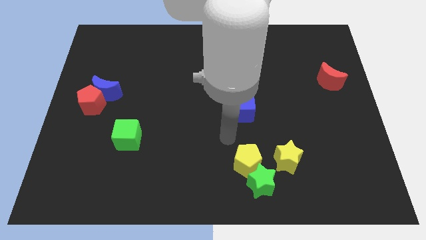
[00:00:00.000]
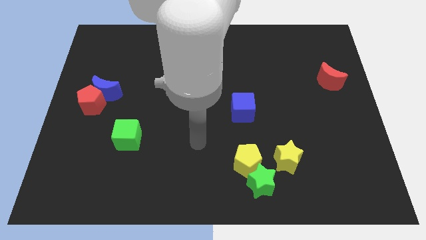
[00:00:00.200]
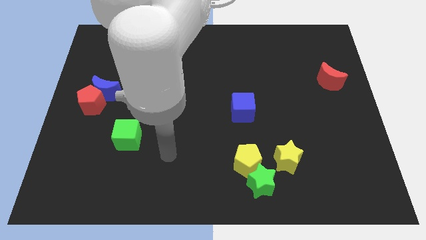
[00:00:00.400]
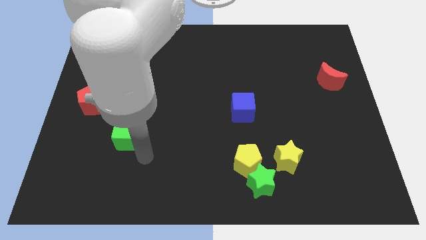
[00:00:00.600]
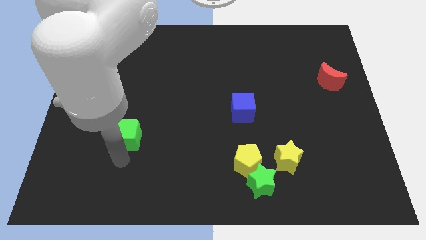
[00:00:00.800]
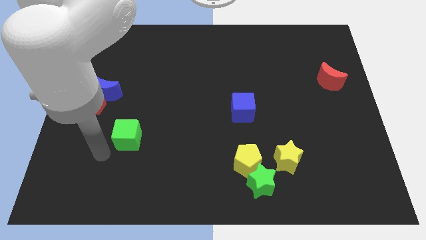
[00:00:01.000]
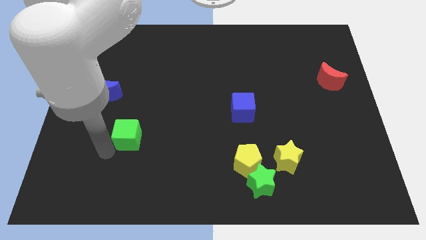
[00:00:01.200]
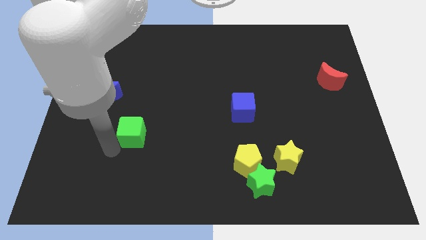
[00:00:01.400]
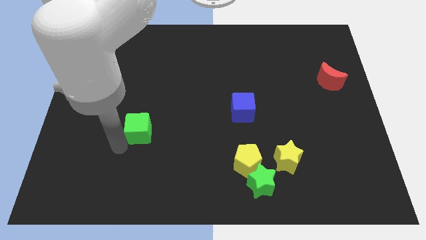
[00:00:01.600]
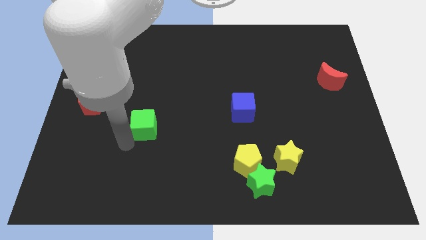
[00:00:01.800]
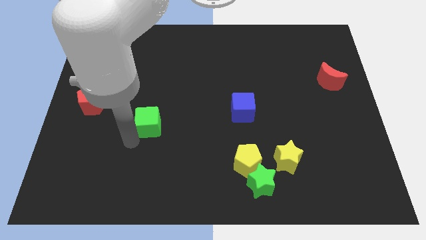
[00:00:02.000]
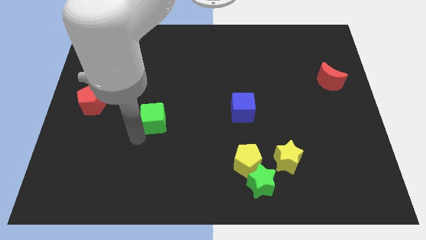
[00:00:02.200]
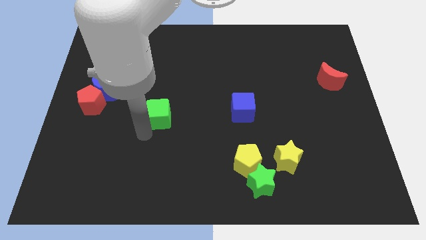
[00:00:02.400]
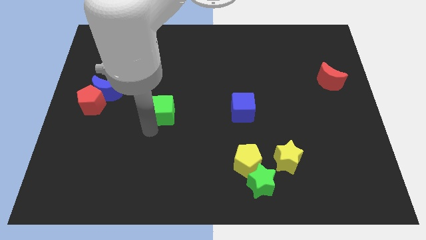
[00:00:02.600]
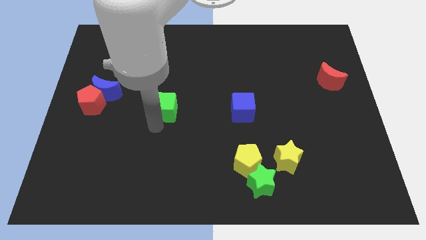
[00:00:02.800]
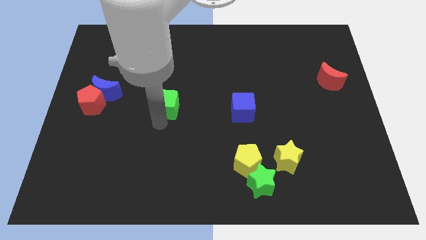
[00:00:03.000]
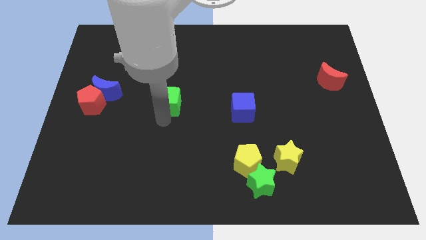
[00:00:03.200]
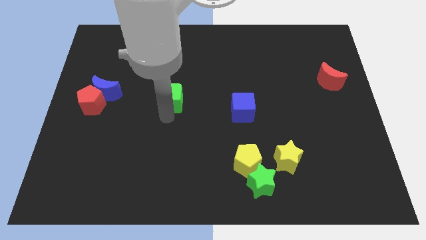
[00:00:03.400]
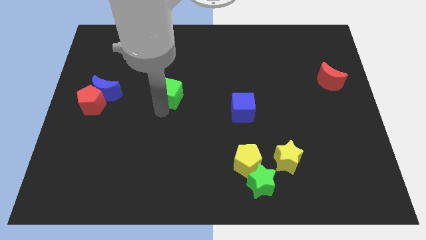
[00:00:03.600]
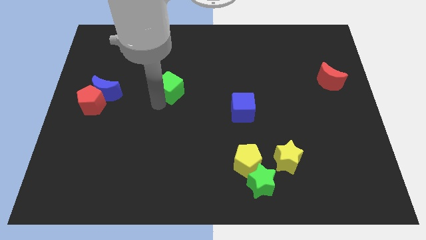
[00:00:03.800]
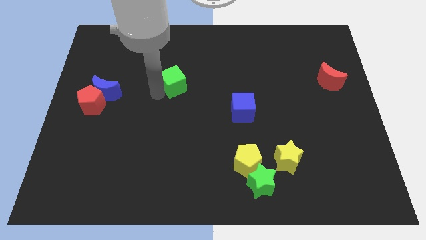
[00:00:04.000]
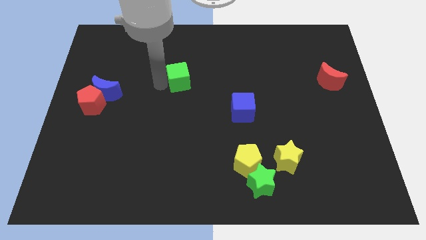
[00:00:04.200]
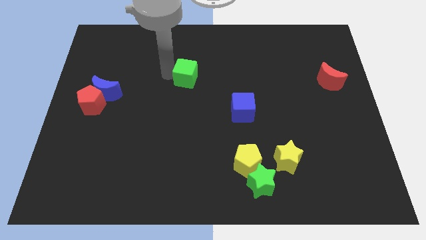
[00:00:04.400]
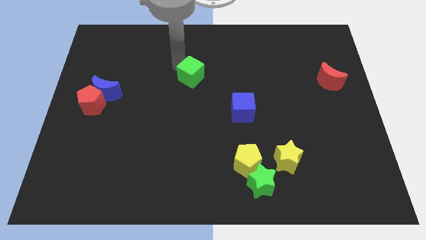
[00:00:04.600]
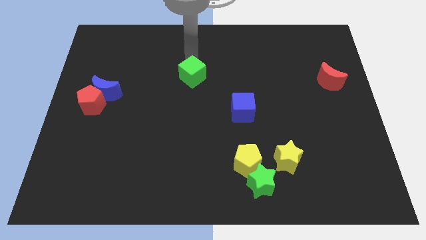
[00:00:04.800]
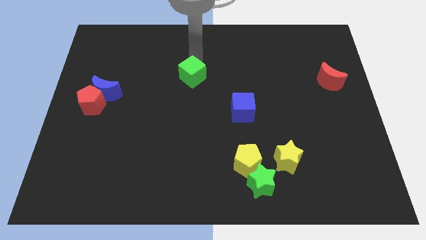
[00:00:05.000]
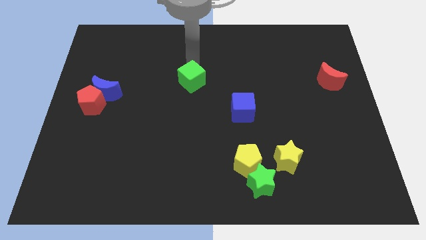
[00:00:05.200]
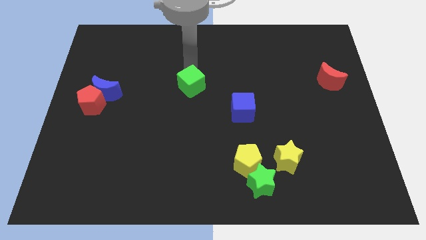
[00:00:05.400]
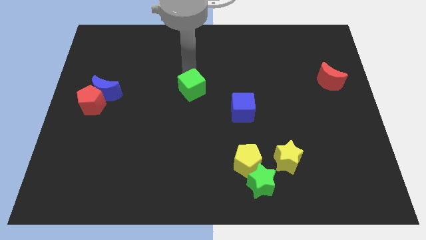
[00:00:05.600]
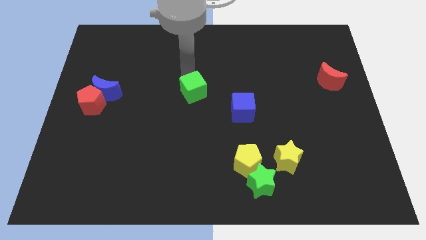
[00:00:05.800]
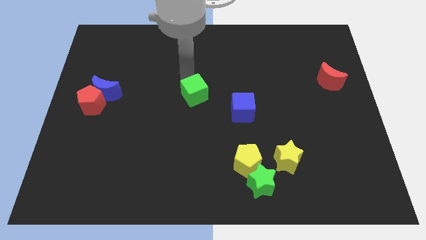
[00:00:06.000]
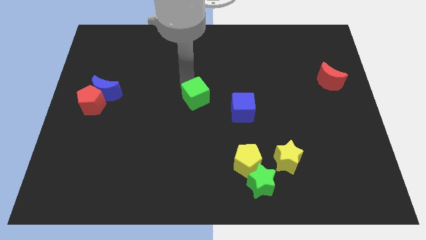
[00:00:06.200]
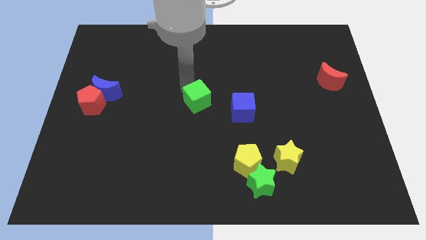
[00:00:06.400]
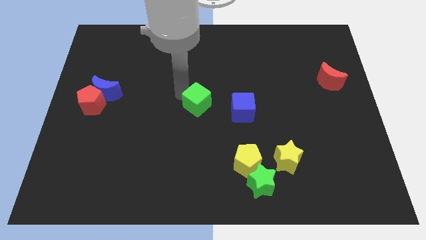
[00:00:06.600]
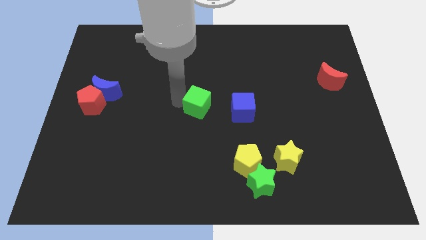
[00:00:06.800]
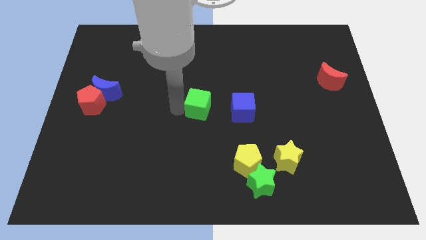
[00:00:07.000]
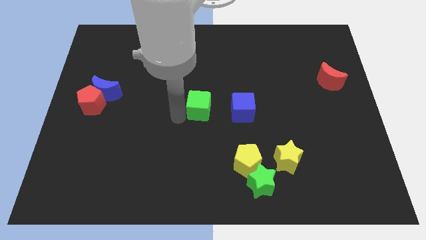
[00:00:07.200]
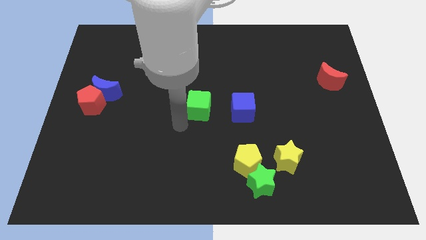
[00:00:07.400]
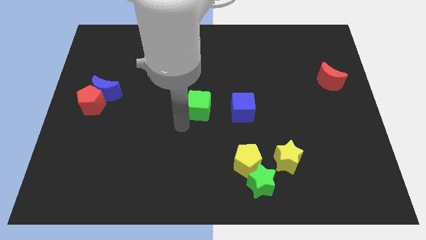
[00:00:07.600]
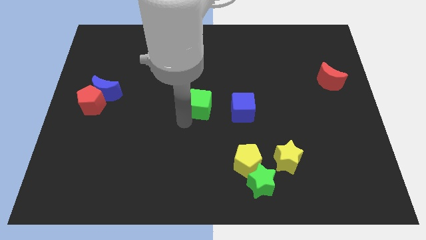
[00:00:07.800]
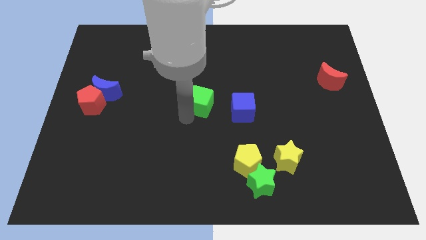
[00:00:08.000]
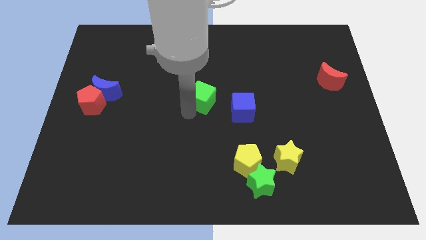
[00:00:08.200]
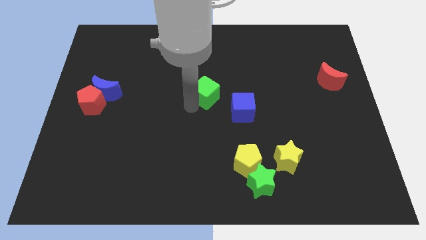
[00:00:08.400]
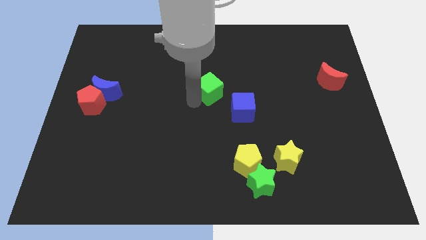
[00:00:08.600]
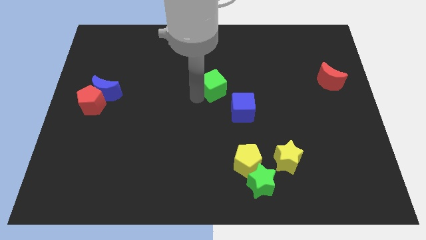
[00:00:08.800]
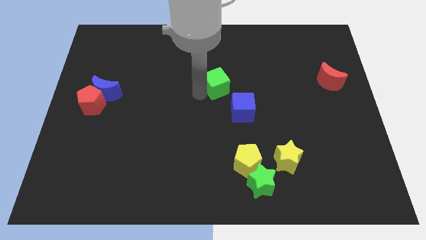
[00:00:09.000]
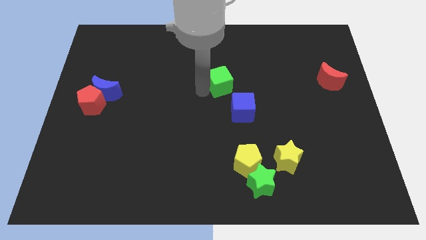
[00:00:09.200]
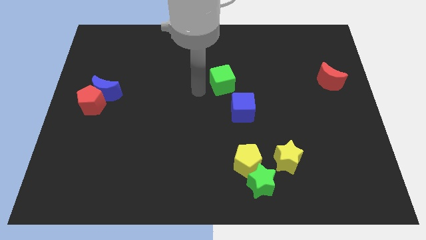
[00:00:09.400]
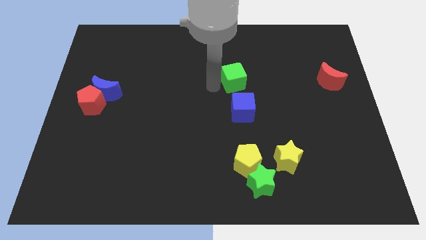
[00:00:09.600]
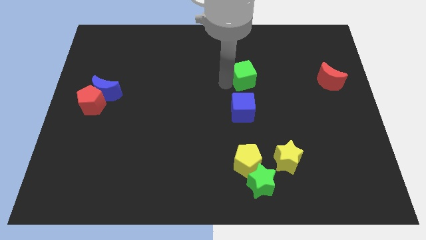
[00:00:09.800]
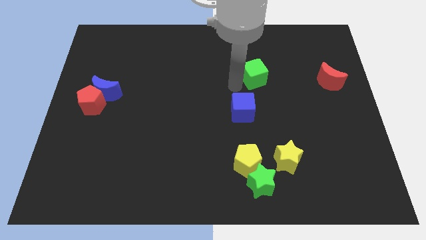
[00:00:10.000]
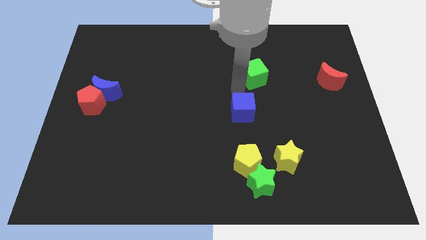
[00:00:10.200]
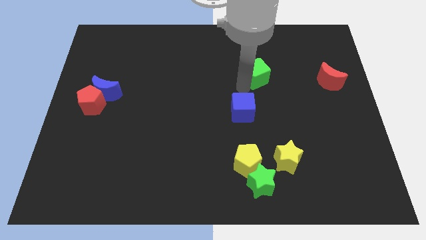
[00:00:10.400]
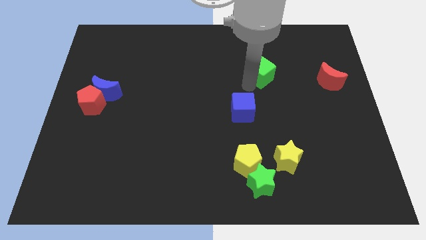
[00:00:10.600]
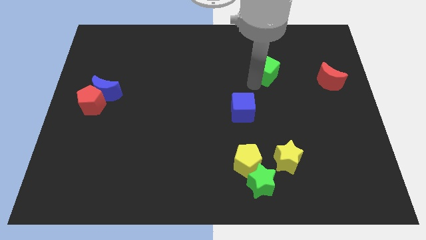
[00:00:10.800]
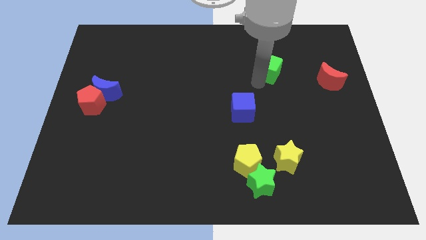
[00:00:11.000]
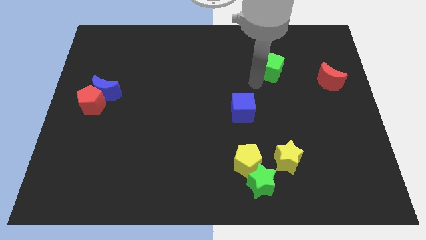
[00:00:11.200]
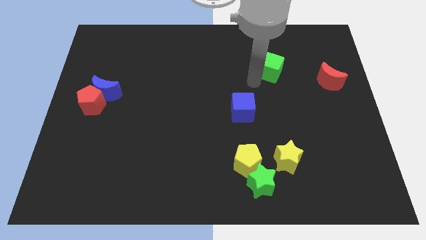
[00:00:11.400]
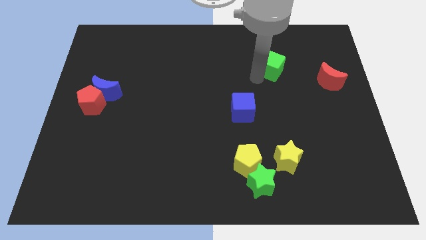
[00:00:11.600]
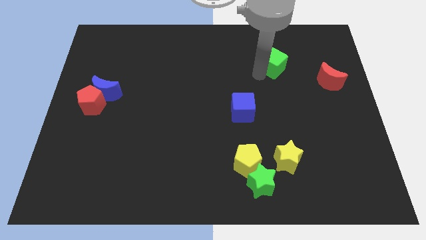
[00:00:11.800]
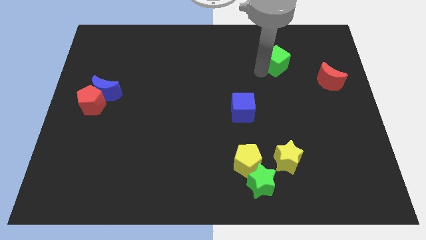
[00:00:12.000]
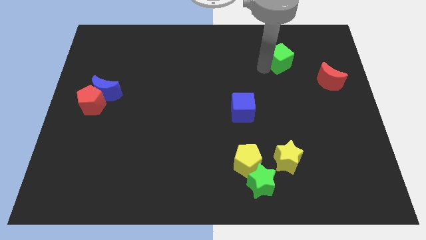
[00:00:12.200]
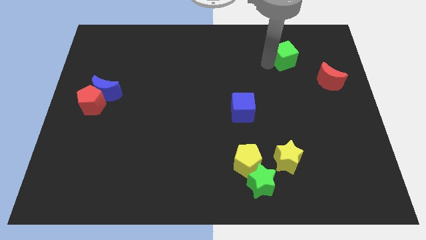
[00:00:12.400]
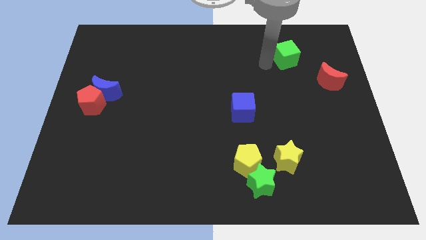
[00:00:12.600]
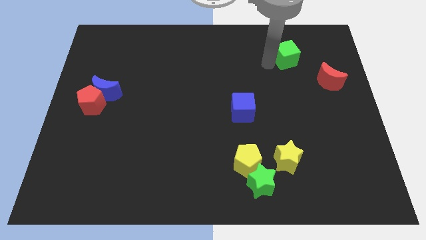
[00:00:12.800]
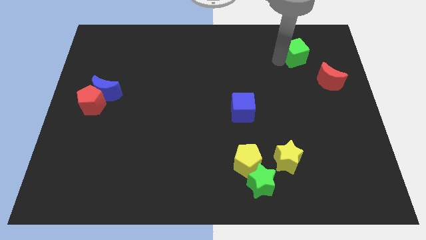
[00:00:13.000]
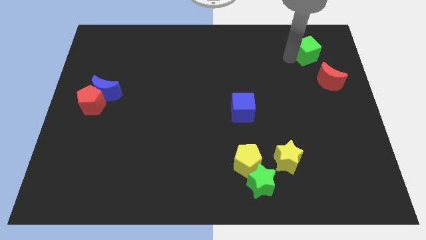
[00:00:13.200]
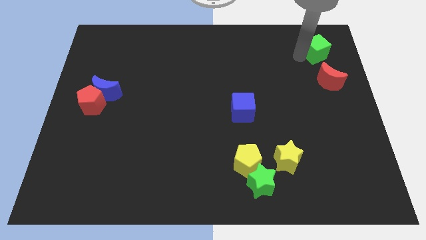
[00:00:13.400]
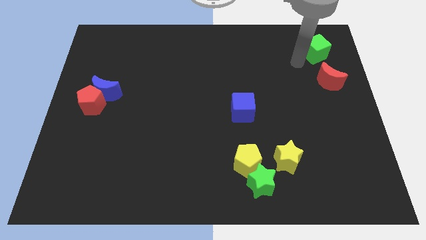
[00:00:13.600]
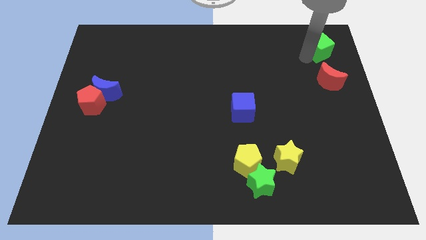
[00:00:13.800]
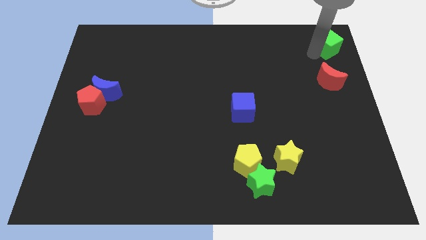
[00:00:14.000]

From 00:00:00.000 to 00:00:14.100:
put the green cube to the top right
